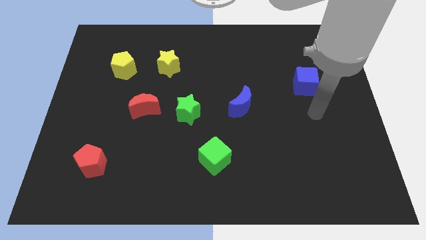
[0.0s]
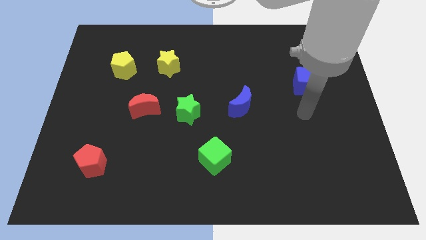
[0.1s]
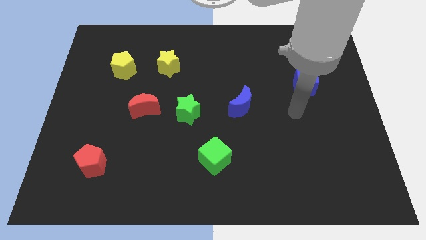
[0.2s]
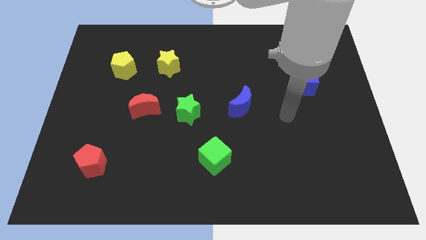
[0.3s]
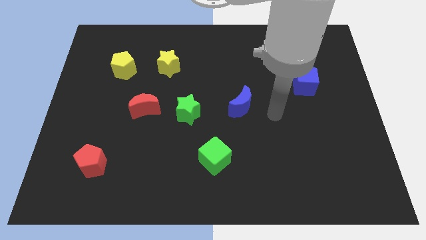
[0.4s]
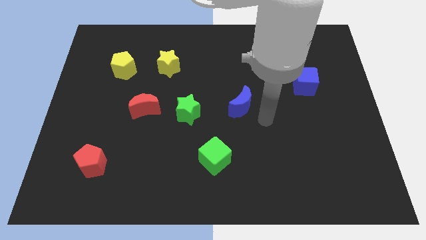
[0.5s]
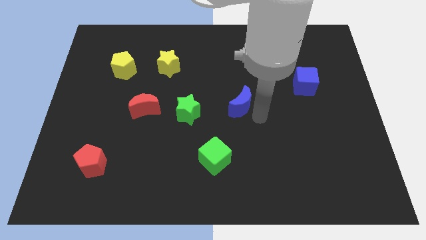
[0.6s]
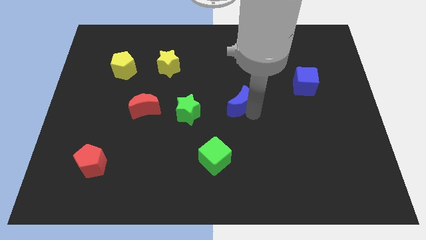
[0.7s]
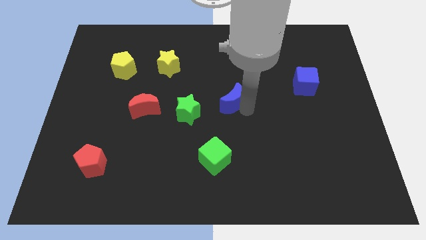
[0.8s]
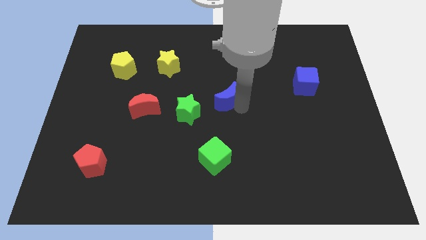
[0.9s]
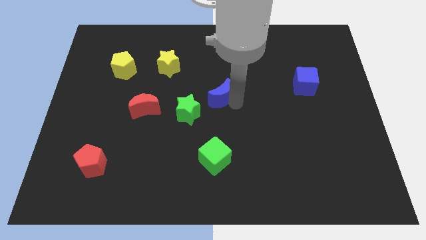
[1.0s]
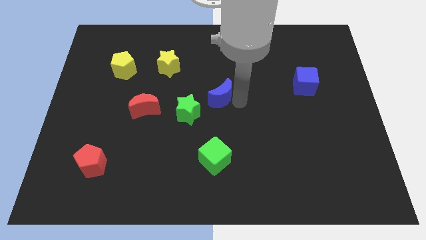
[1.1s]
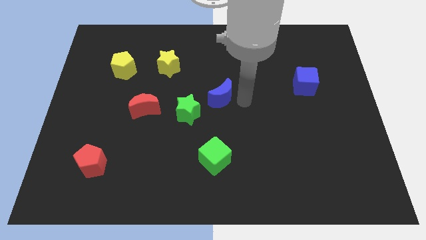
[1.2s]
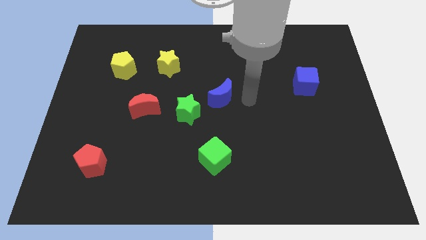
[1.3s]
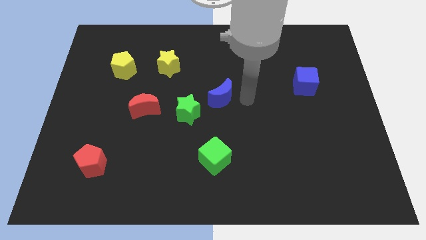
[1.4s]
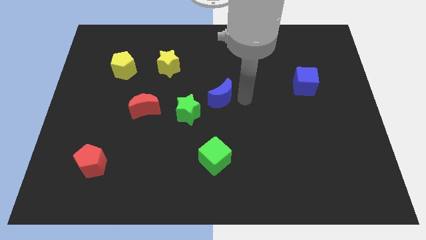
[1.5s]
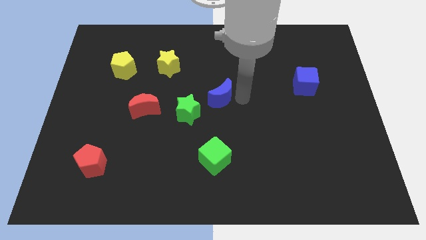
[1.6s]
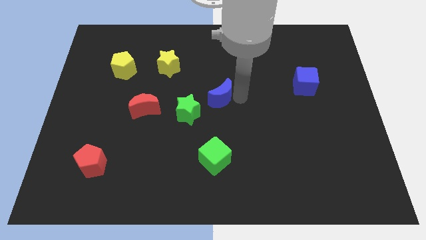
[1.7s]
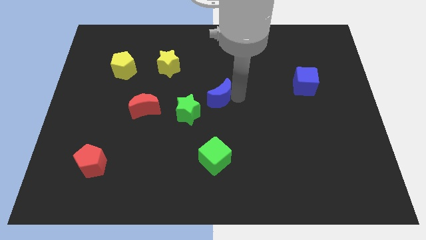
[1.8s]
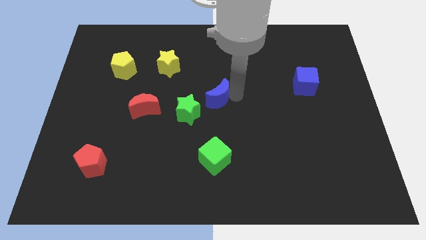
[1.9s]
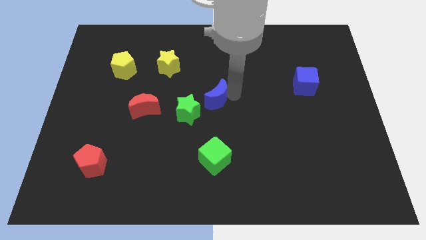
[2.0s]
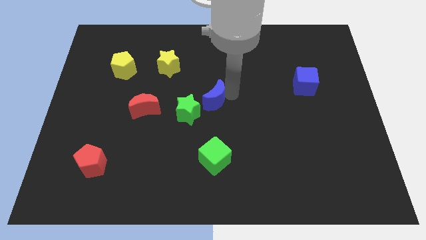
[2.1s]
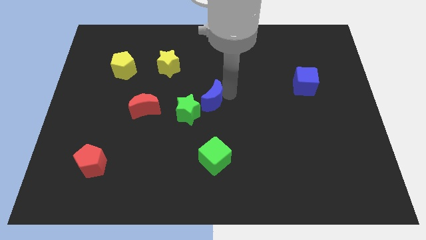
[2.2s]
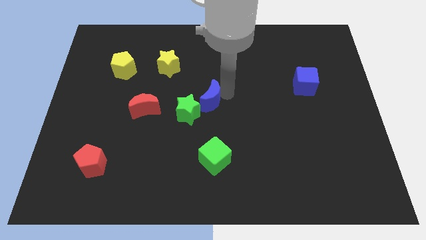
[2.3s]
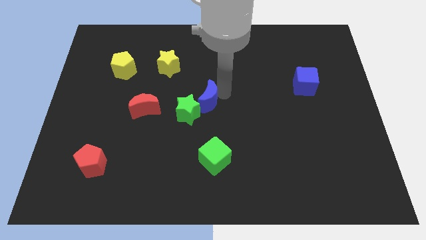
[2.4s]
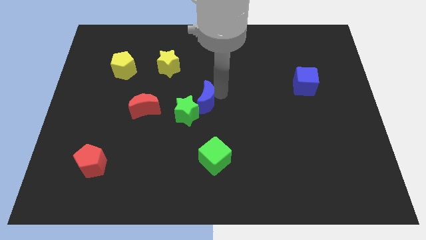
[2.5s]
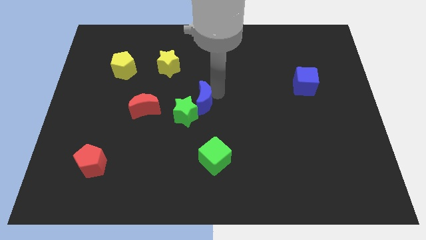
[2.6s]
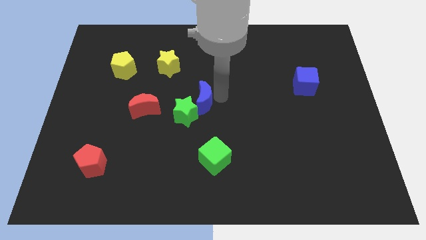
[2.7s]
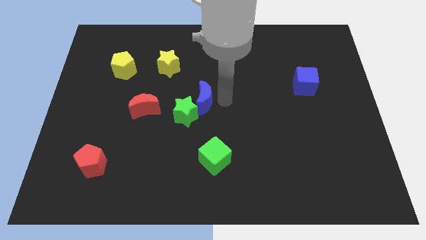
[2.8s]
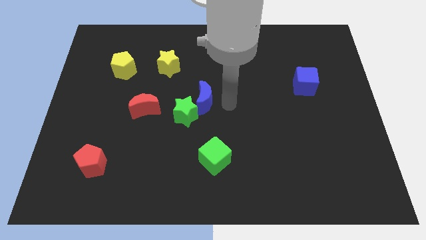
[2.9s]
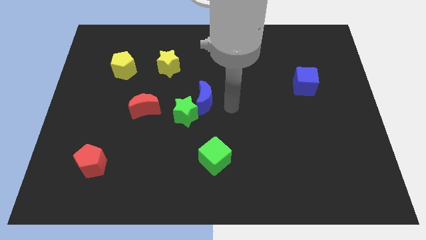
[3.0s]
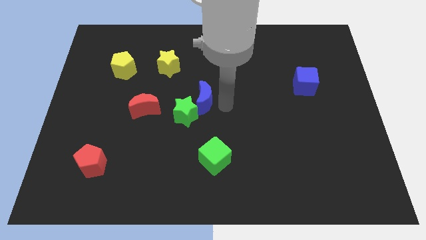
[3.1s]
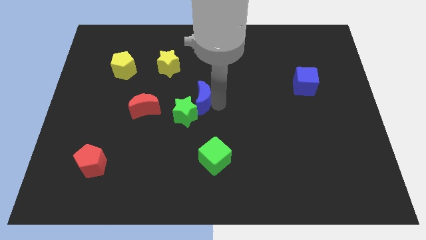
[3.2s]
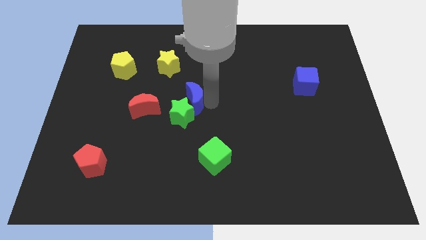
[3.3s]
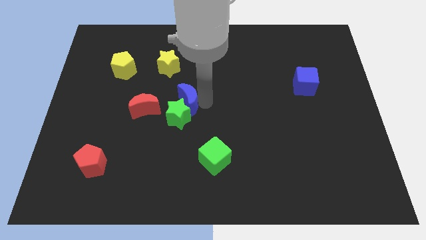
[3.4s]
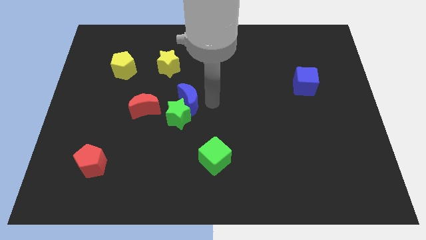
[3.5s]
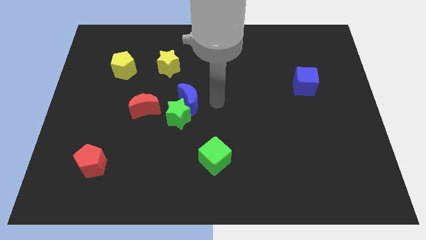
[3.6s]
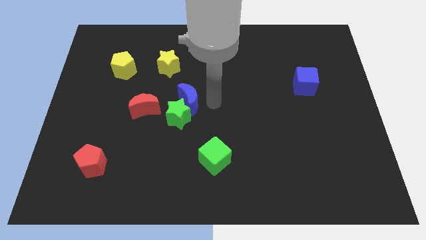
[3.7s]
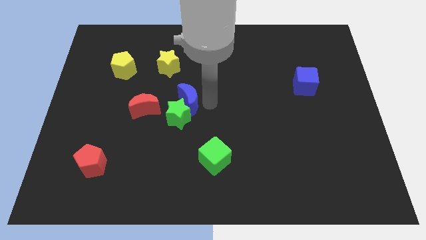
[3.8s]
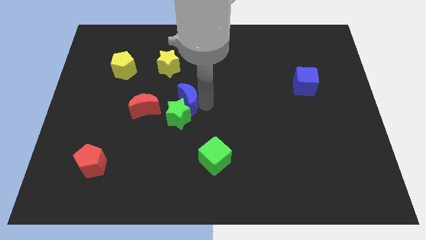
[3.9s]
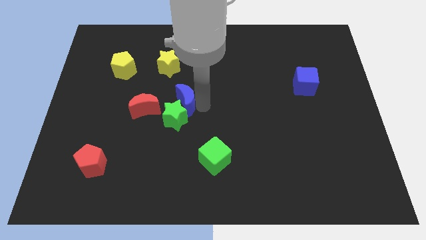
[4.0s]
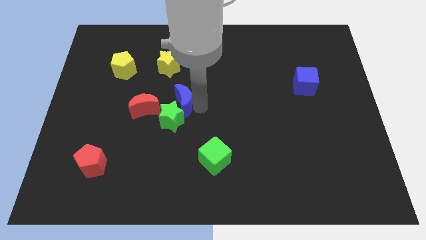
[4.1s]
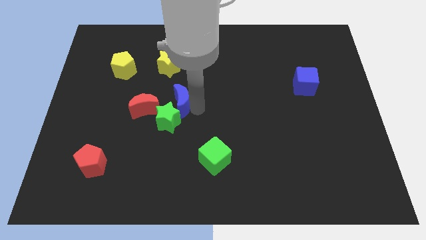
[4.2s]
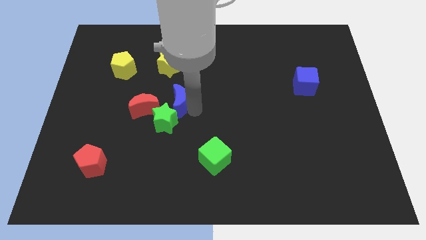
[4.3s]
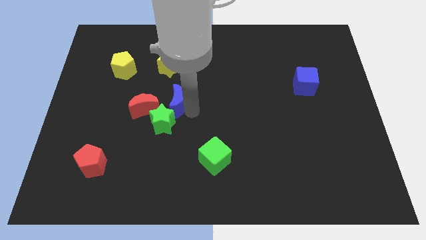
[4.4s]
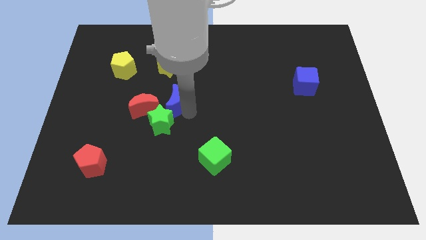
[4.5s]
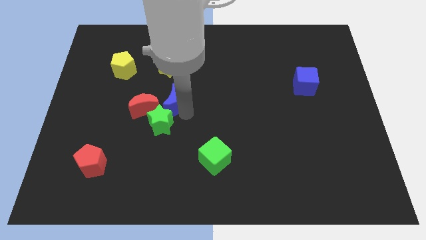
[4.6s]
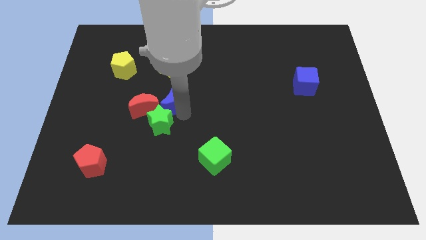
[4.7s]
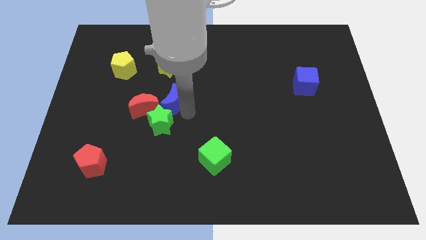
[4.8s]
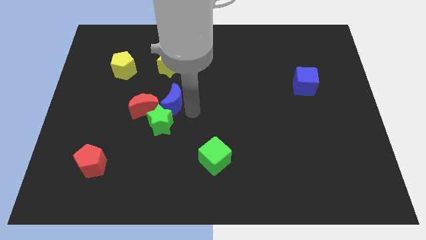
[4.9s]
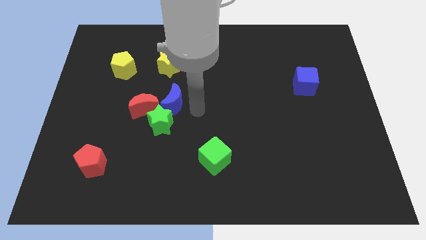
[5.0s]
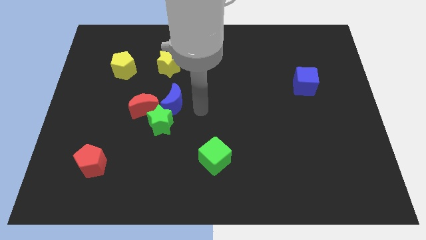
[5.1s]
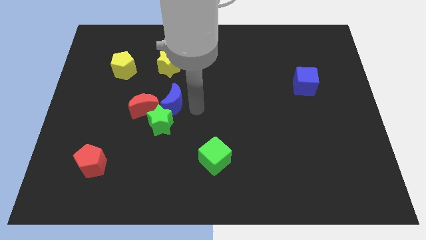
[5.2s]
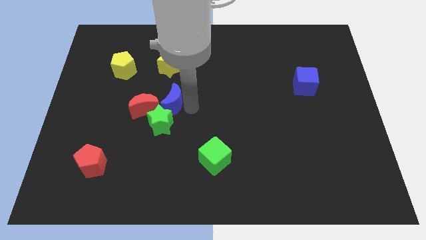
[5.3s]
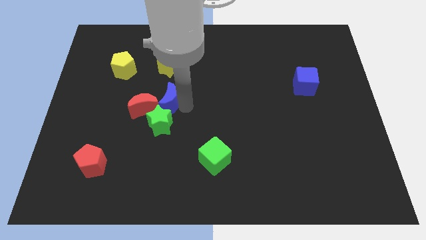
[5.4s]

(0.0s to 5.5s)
put the blue moon to the red moon

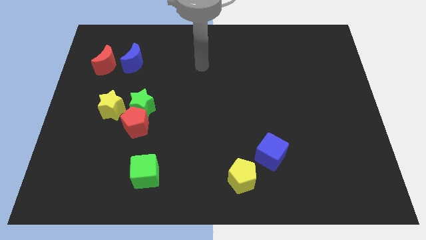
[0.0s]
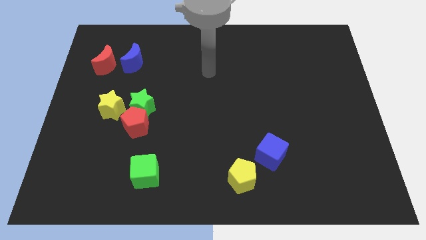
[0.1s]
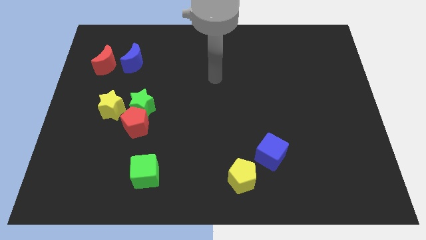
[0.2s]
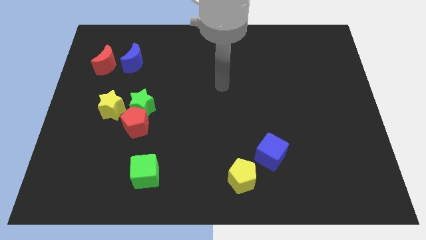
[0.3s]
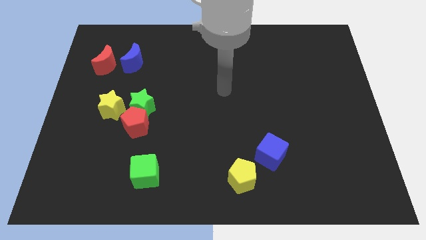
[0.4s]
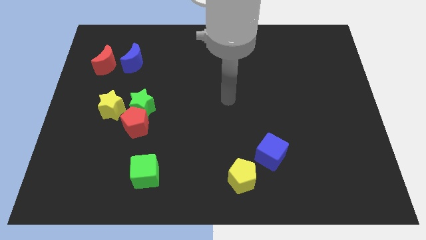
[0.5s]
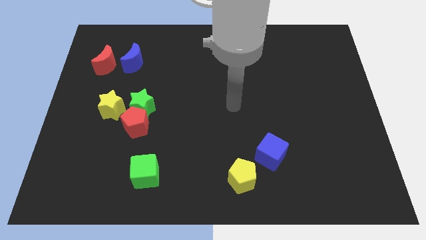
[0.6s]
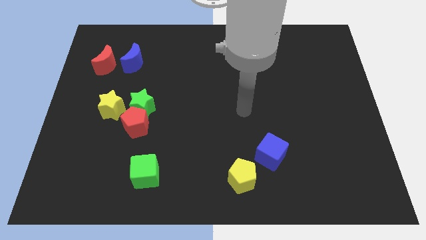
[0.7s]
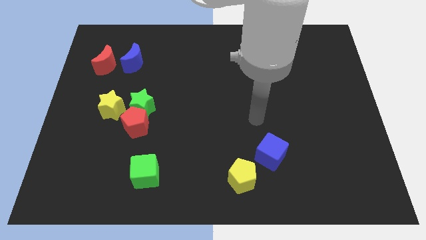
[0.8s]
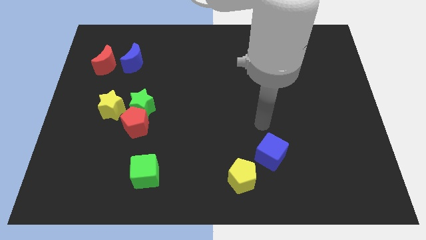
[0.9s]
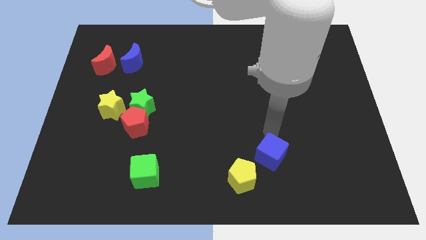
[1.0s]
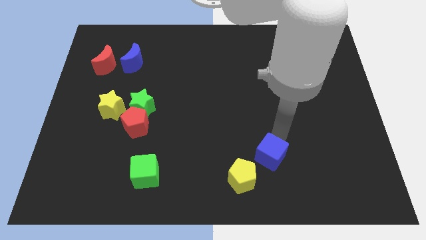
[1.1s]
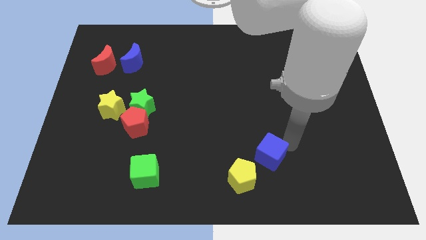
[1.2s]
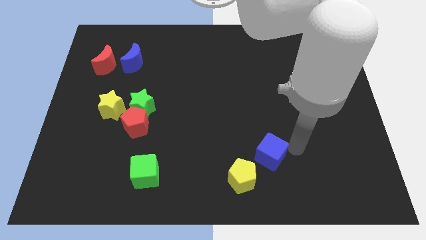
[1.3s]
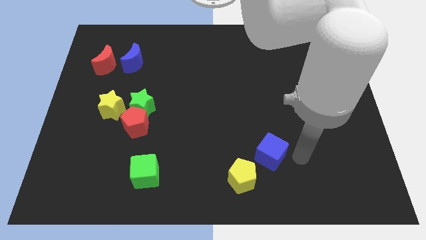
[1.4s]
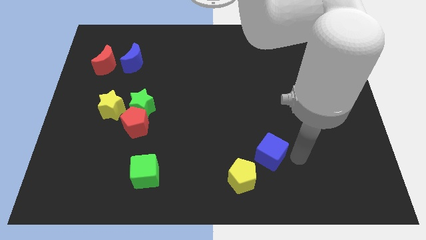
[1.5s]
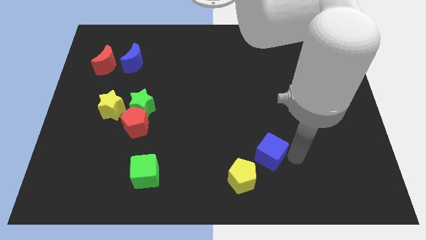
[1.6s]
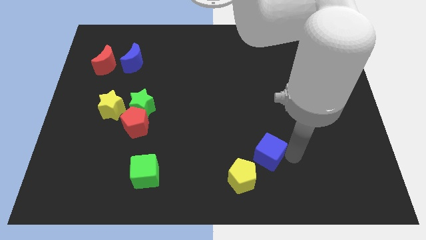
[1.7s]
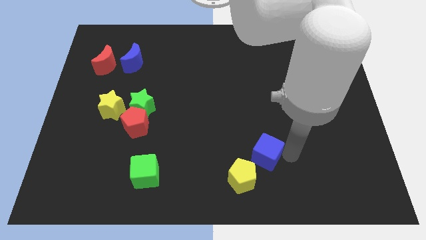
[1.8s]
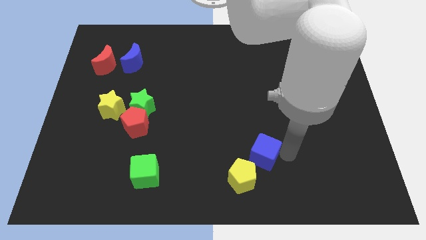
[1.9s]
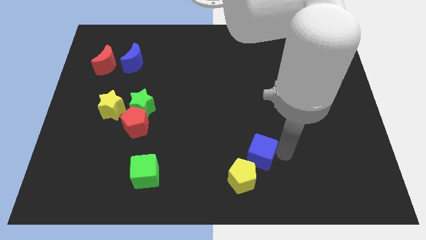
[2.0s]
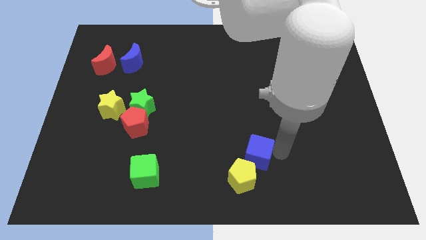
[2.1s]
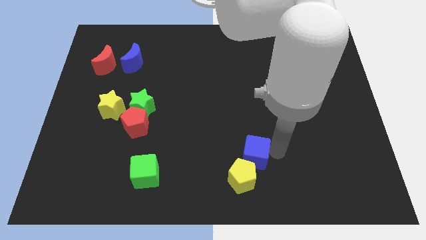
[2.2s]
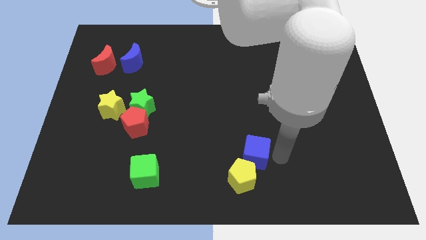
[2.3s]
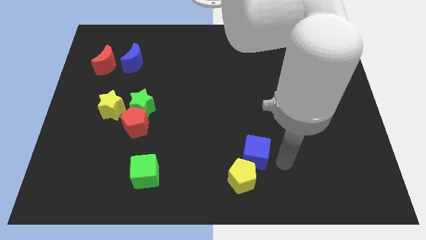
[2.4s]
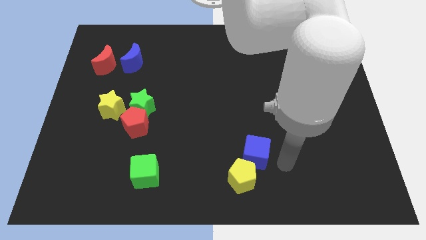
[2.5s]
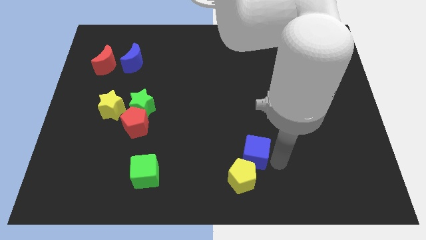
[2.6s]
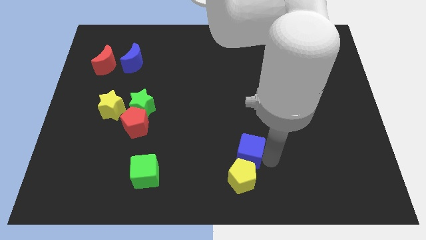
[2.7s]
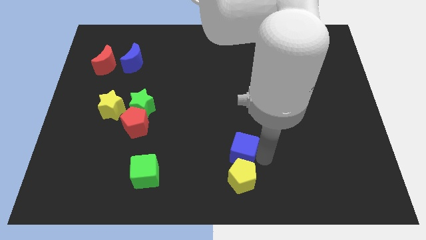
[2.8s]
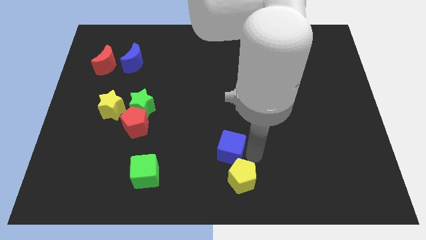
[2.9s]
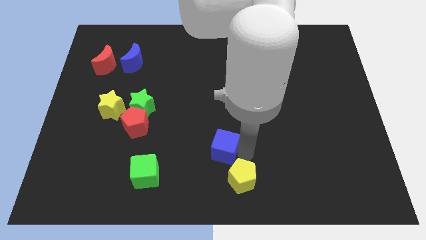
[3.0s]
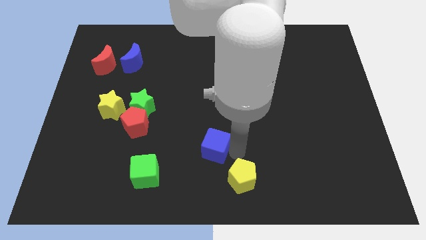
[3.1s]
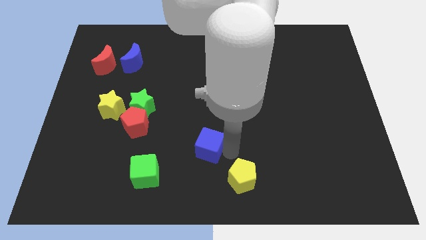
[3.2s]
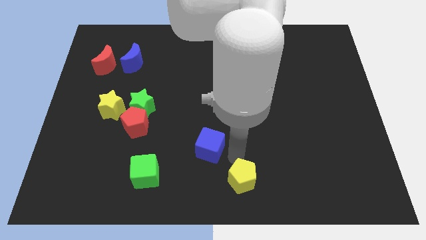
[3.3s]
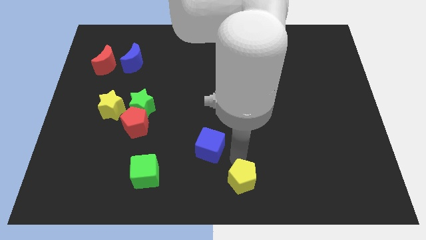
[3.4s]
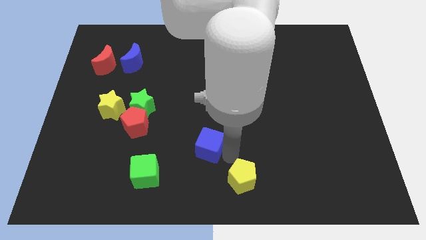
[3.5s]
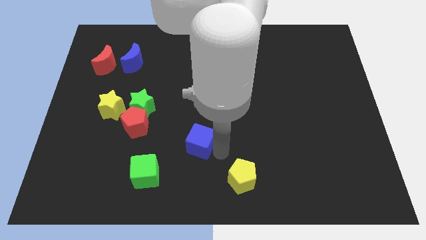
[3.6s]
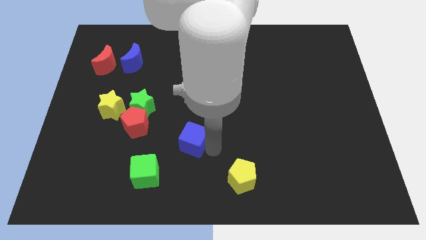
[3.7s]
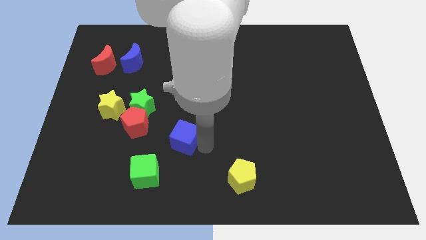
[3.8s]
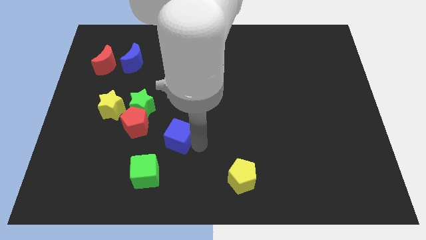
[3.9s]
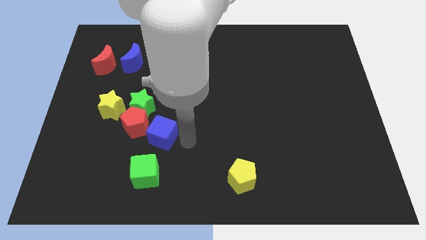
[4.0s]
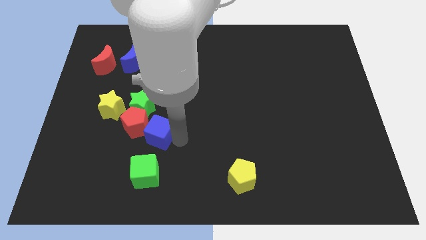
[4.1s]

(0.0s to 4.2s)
push the blue cube towards the red pentagon
